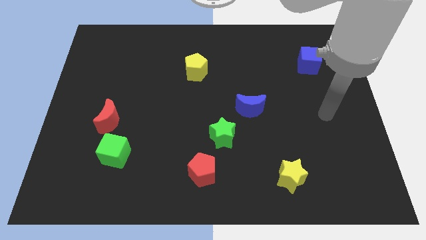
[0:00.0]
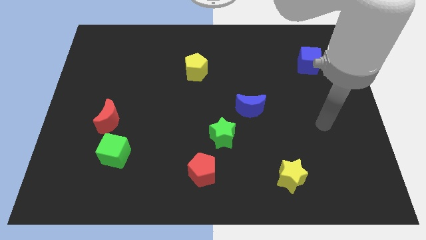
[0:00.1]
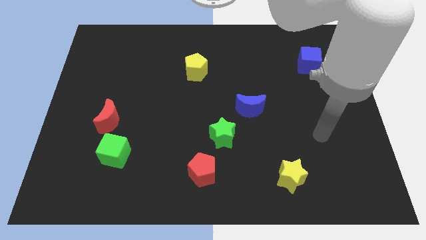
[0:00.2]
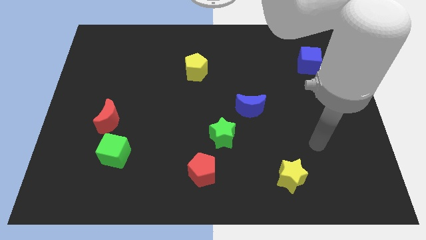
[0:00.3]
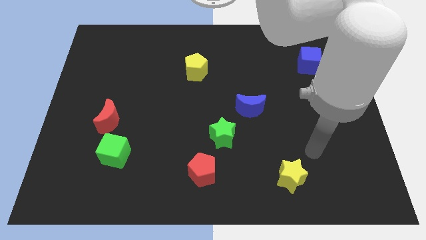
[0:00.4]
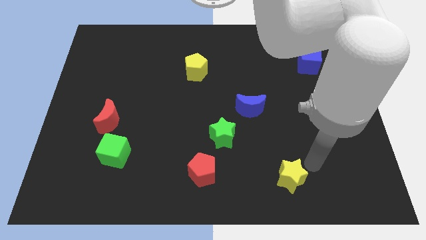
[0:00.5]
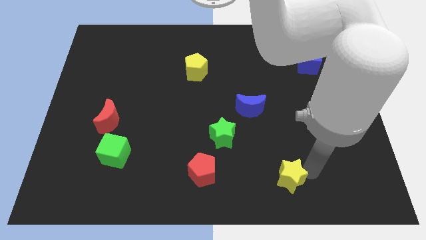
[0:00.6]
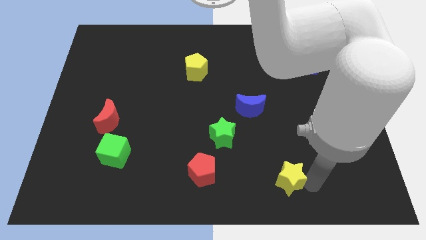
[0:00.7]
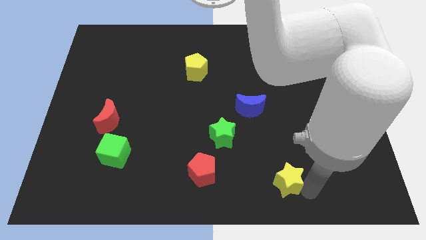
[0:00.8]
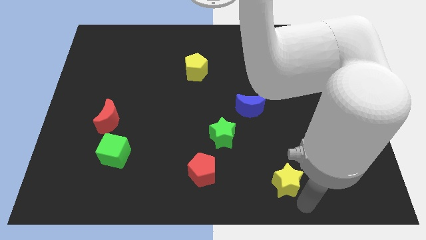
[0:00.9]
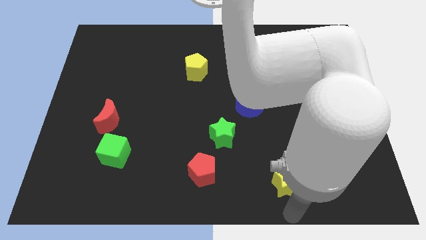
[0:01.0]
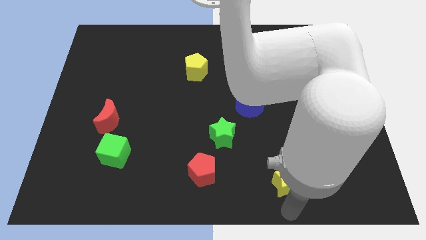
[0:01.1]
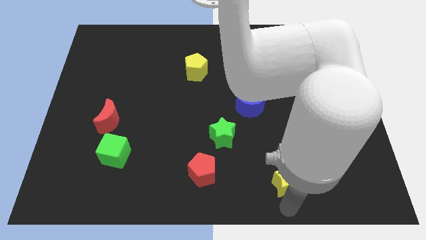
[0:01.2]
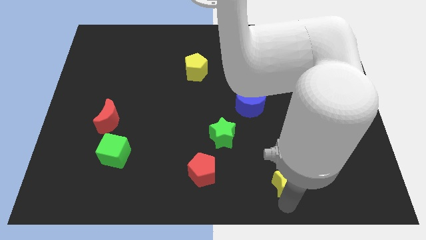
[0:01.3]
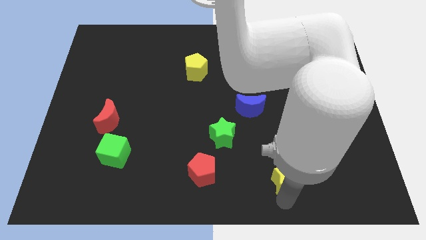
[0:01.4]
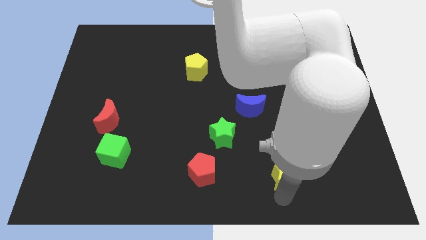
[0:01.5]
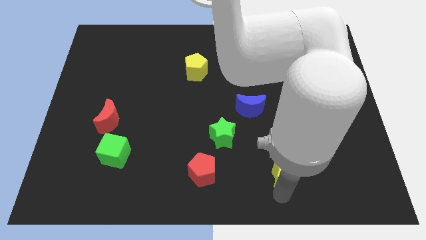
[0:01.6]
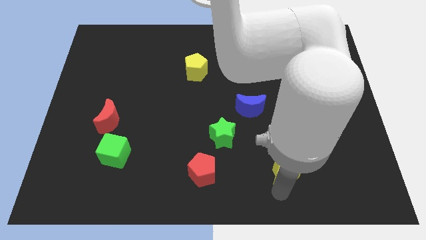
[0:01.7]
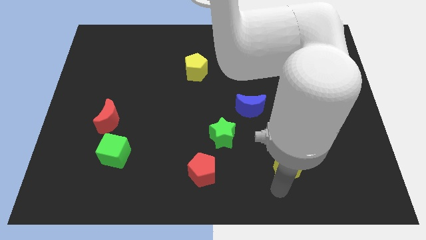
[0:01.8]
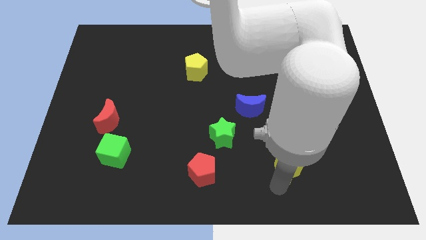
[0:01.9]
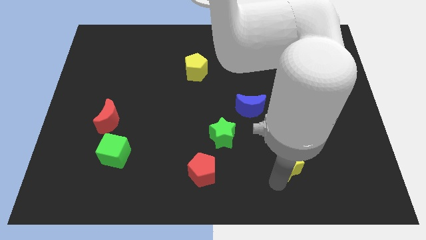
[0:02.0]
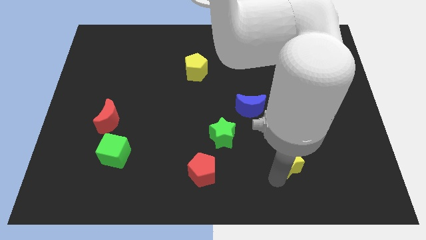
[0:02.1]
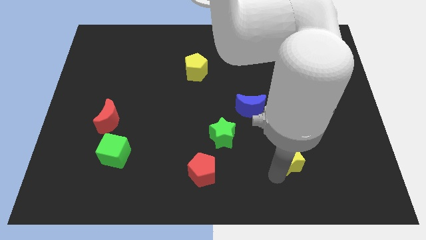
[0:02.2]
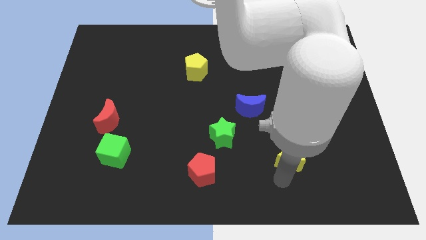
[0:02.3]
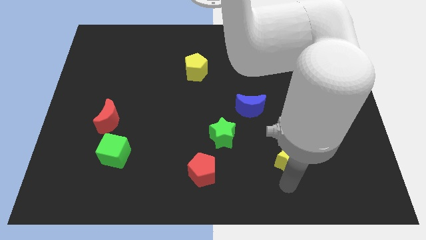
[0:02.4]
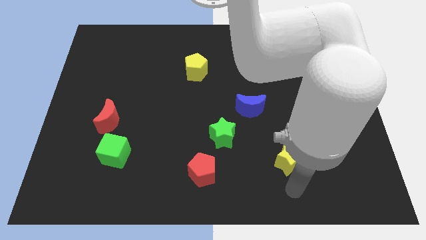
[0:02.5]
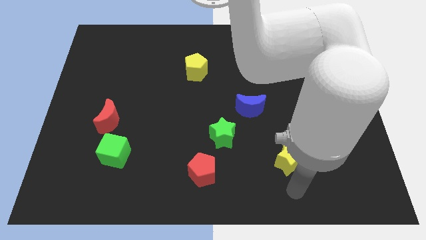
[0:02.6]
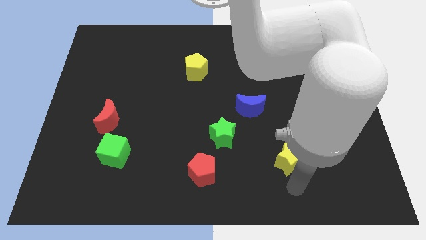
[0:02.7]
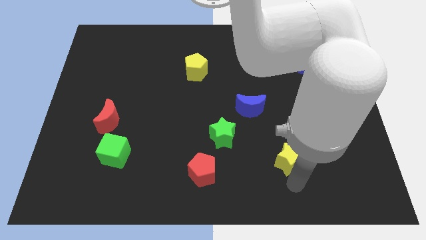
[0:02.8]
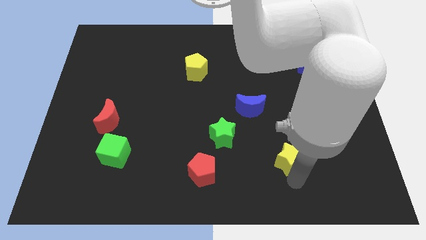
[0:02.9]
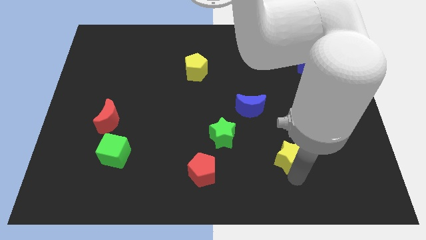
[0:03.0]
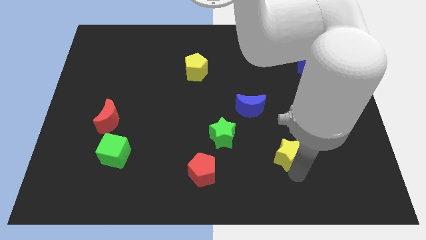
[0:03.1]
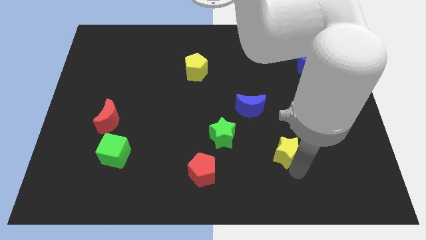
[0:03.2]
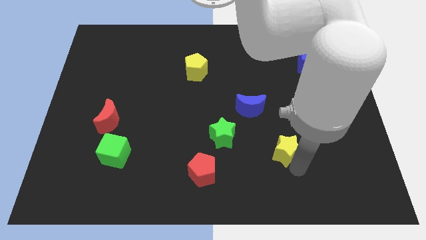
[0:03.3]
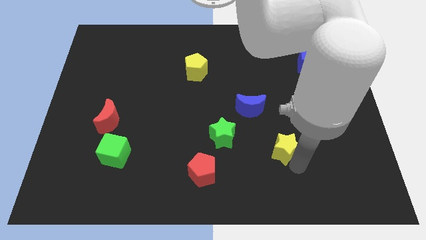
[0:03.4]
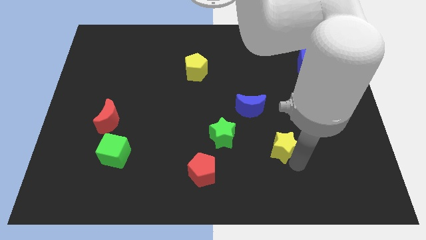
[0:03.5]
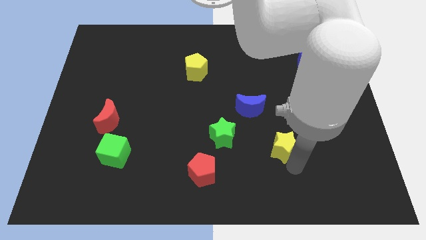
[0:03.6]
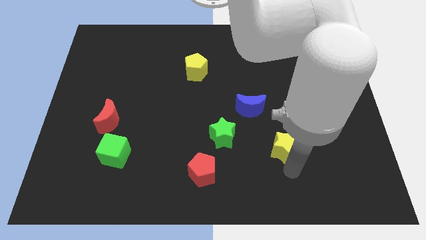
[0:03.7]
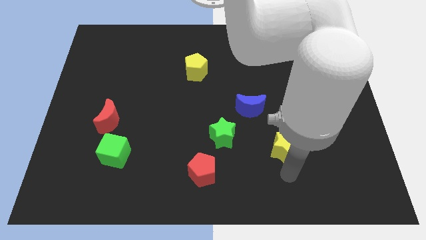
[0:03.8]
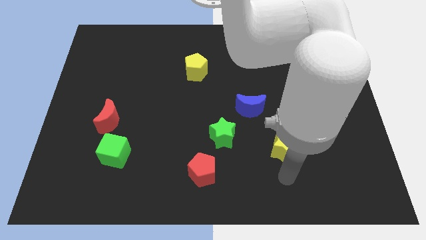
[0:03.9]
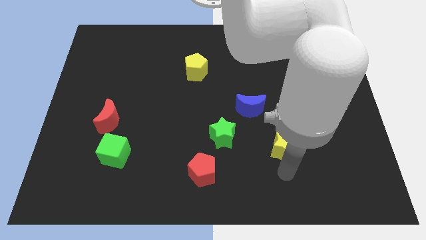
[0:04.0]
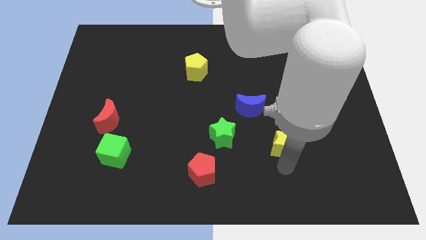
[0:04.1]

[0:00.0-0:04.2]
slide the yellow star somewhat up

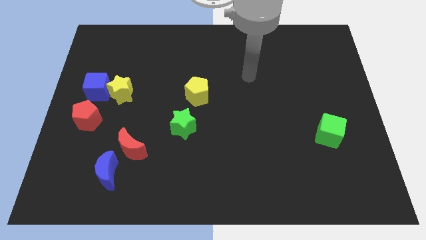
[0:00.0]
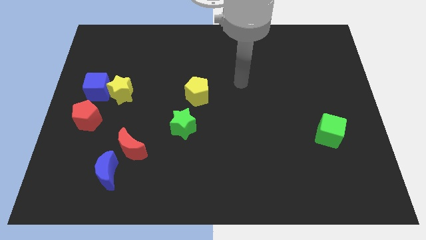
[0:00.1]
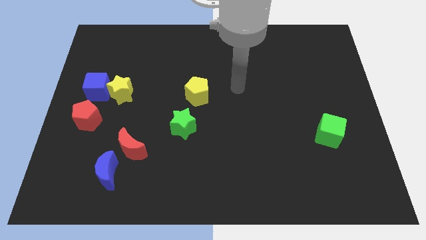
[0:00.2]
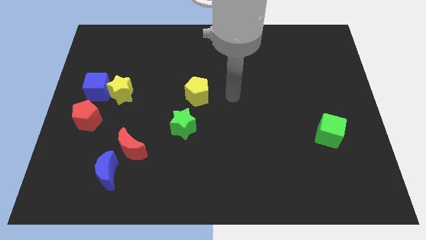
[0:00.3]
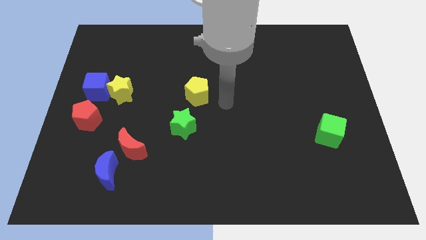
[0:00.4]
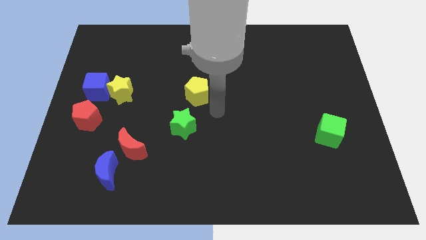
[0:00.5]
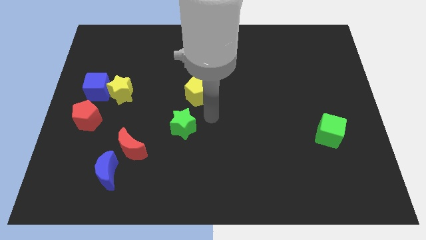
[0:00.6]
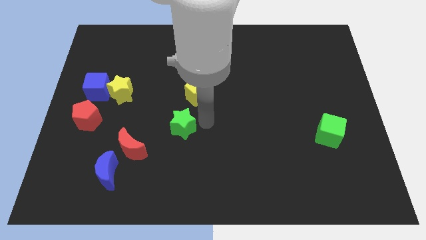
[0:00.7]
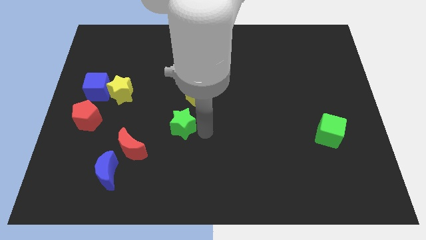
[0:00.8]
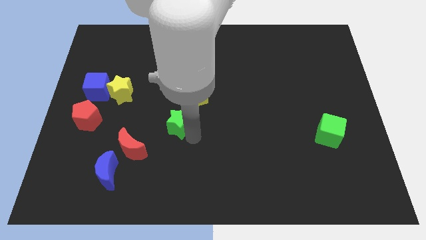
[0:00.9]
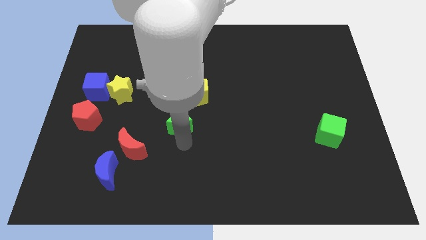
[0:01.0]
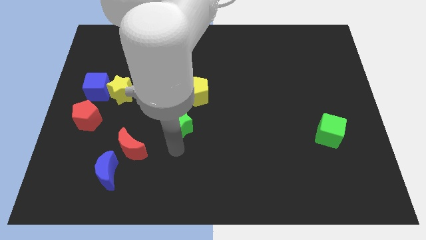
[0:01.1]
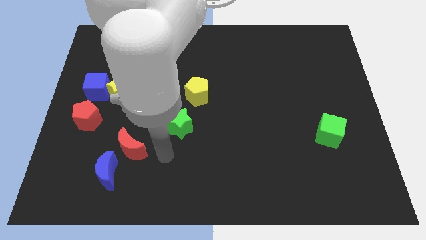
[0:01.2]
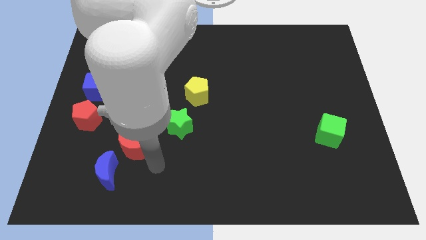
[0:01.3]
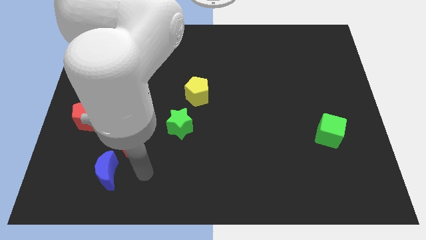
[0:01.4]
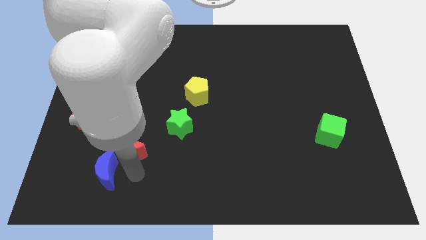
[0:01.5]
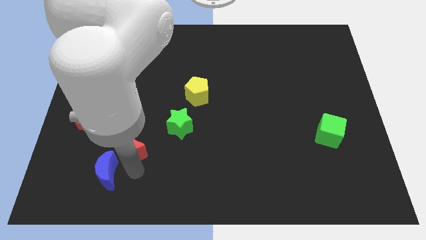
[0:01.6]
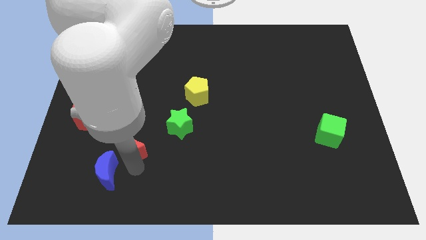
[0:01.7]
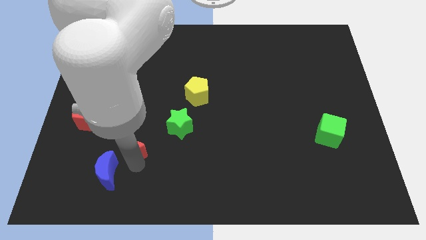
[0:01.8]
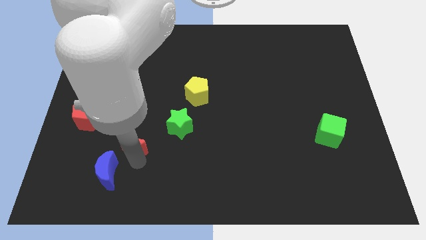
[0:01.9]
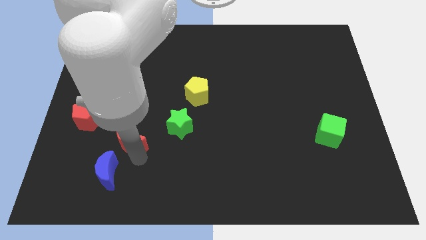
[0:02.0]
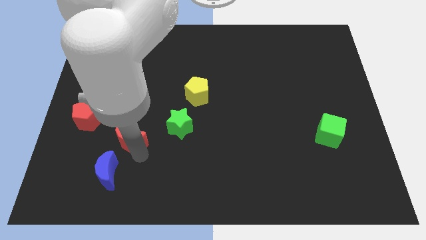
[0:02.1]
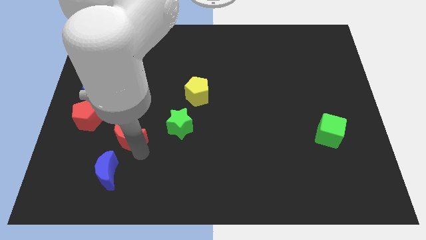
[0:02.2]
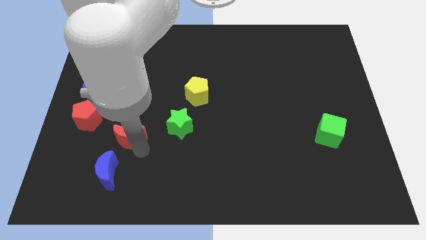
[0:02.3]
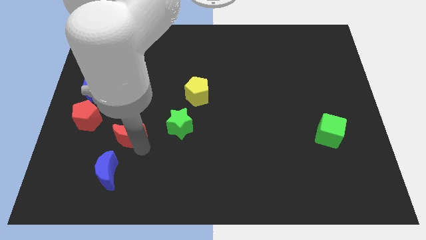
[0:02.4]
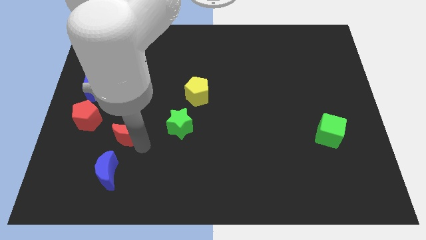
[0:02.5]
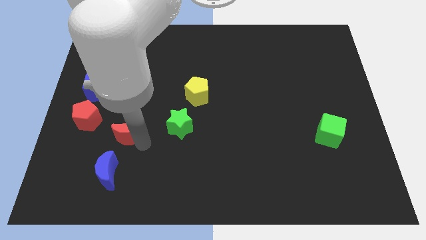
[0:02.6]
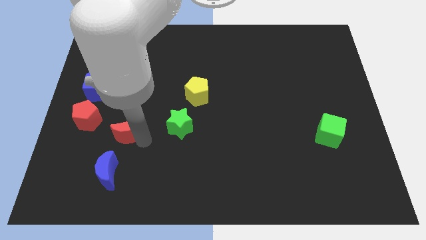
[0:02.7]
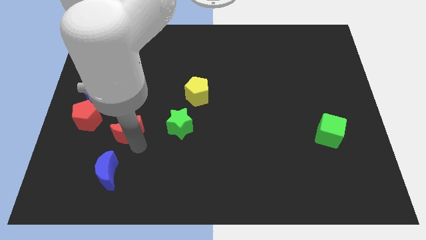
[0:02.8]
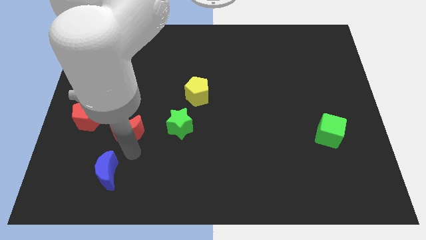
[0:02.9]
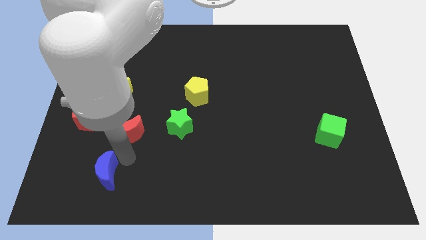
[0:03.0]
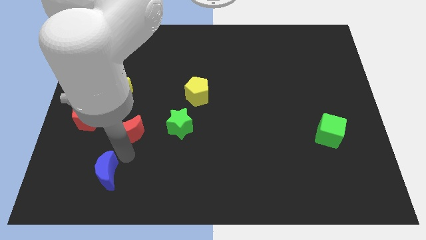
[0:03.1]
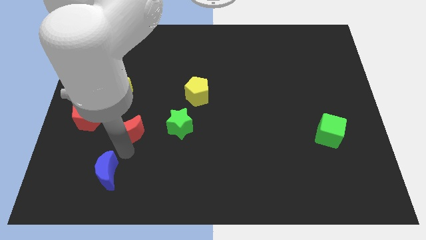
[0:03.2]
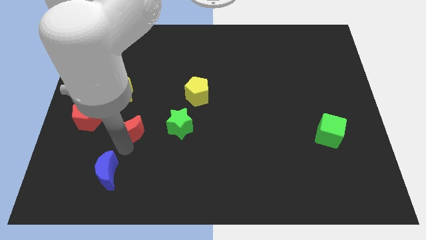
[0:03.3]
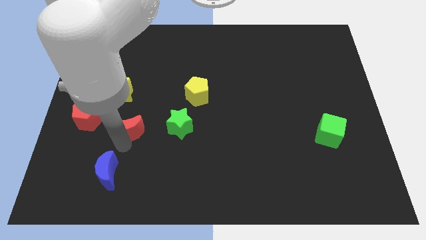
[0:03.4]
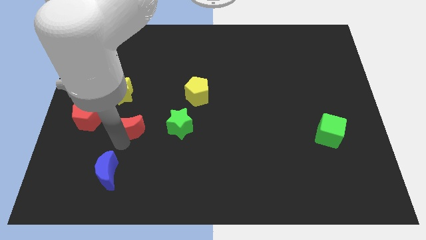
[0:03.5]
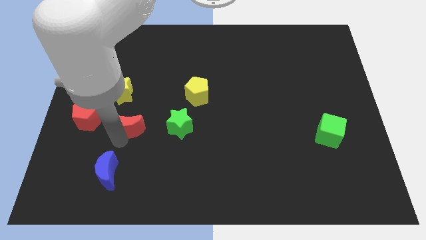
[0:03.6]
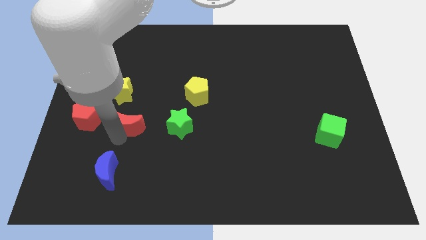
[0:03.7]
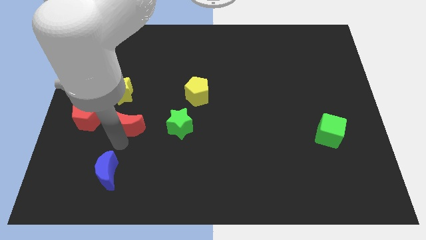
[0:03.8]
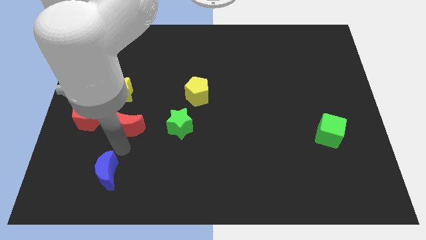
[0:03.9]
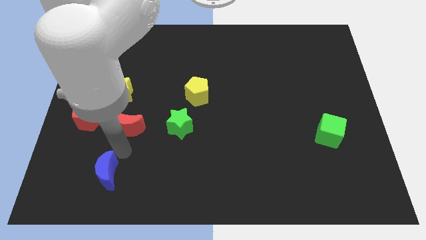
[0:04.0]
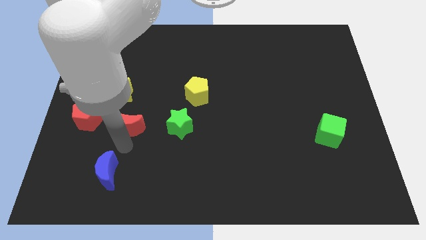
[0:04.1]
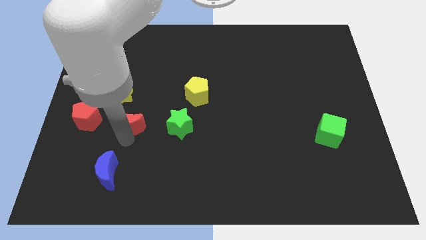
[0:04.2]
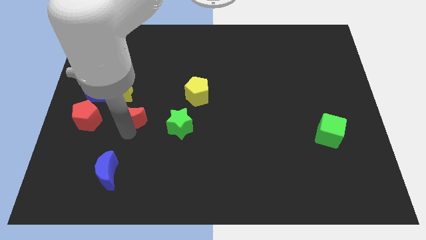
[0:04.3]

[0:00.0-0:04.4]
push the red moon up a little bit
